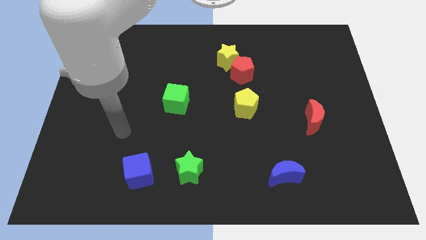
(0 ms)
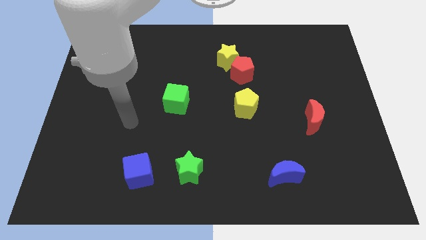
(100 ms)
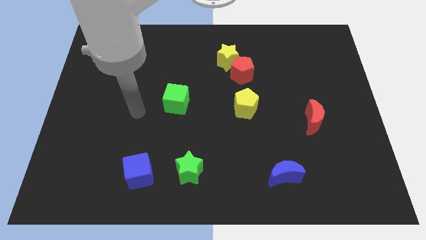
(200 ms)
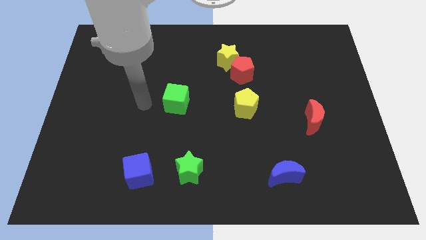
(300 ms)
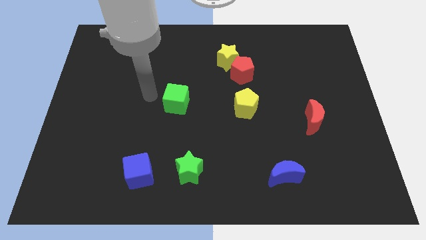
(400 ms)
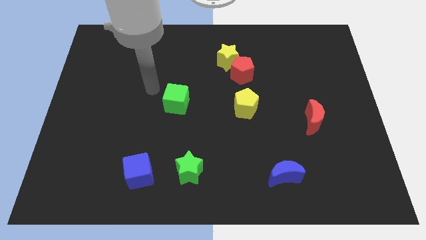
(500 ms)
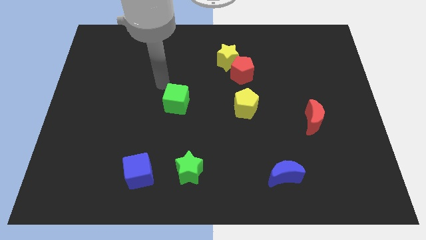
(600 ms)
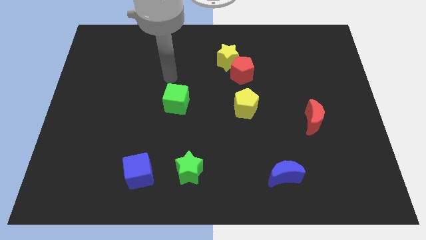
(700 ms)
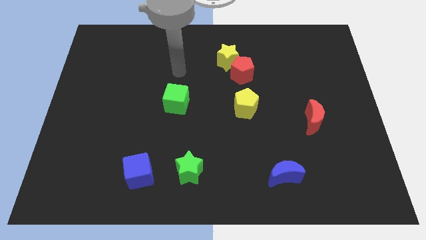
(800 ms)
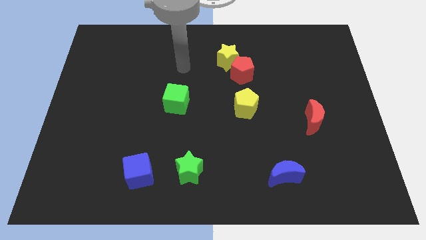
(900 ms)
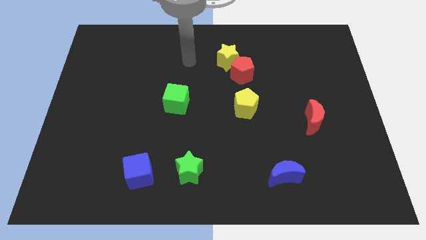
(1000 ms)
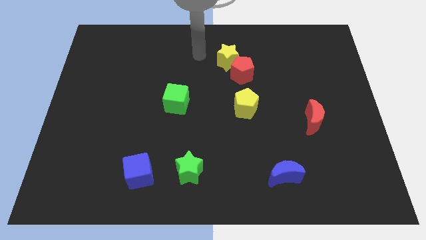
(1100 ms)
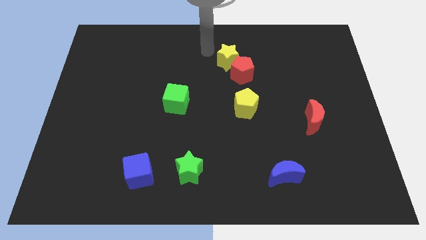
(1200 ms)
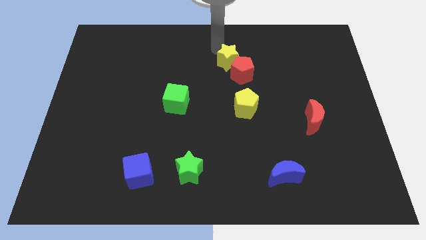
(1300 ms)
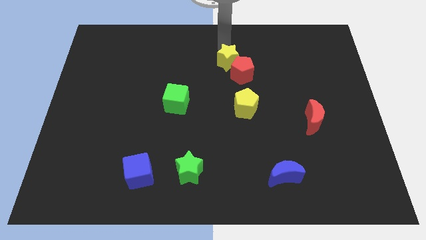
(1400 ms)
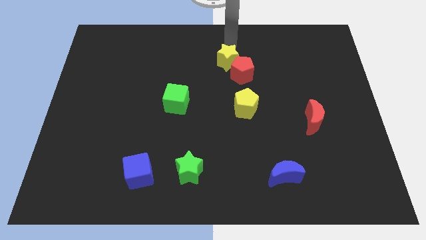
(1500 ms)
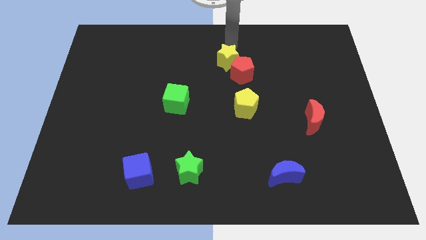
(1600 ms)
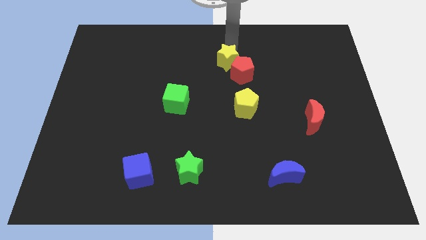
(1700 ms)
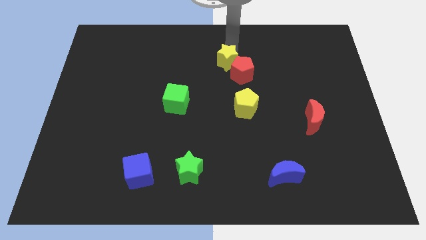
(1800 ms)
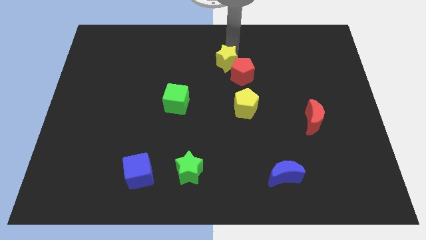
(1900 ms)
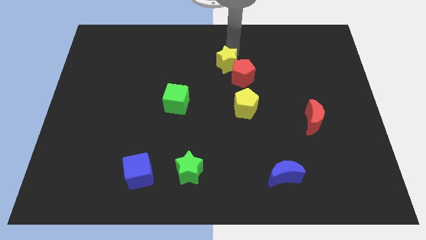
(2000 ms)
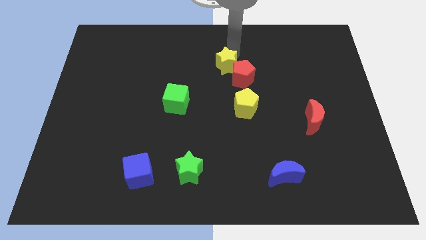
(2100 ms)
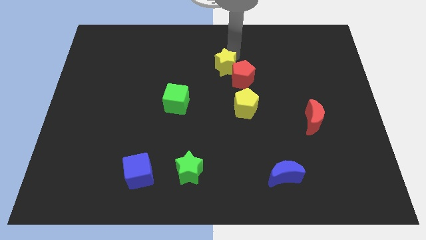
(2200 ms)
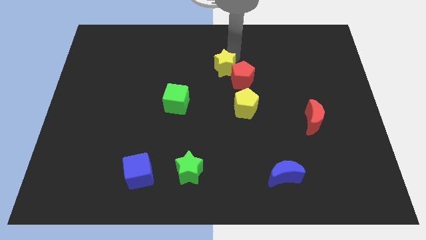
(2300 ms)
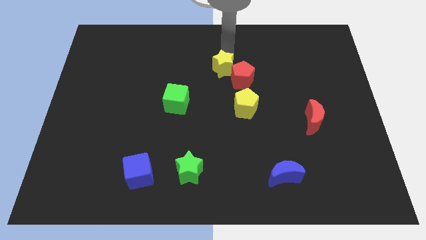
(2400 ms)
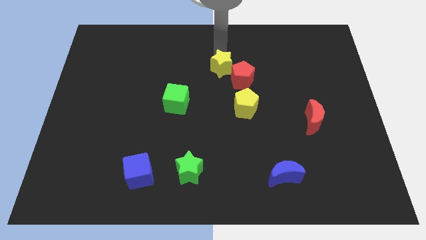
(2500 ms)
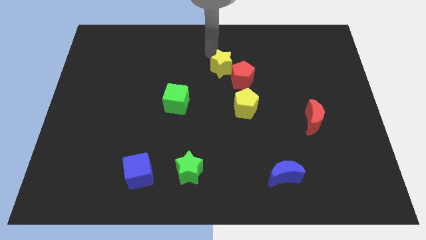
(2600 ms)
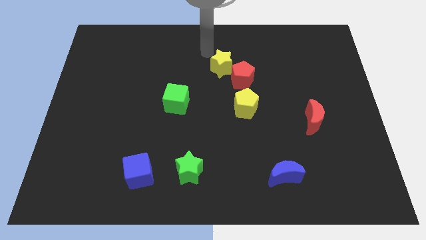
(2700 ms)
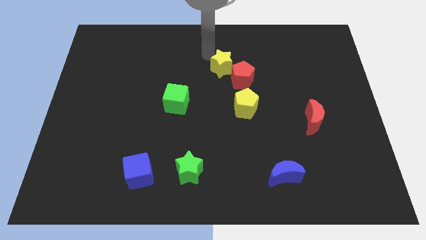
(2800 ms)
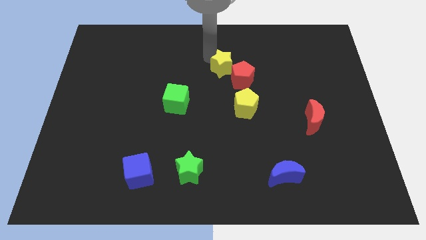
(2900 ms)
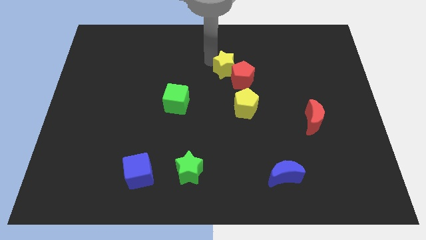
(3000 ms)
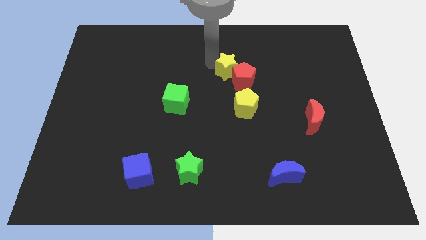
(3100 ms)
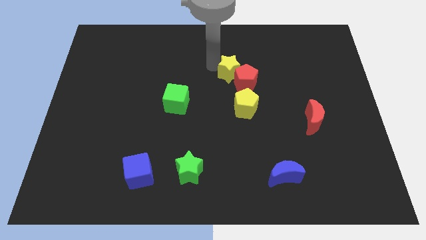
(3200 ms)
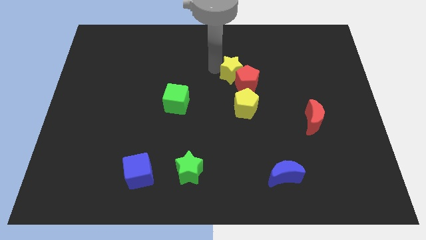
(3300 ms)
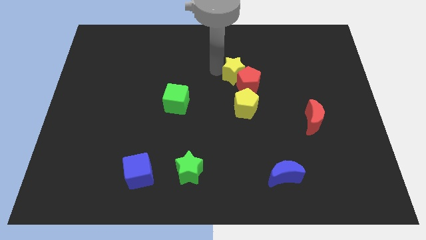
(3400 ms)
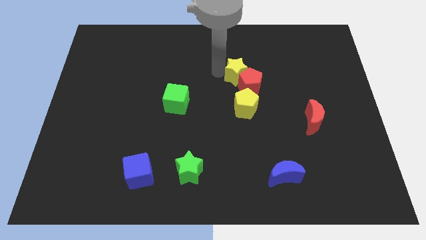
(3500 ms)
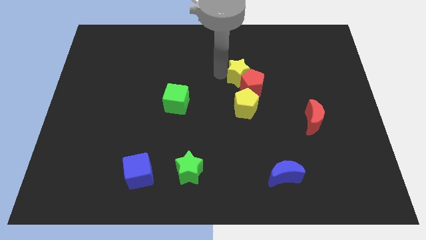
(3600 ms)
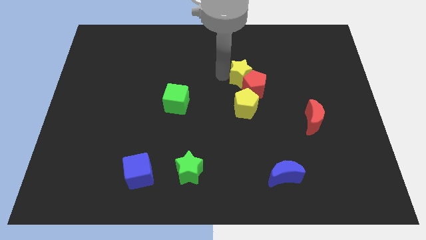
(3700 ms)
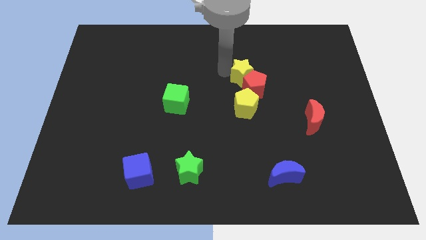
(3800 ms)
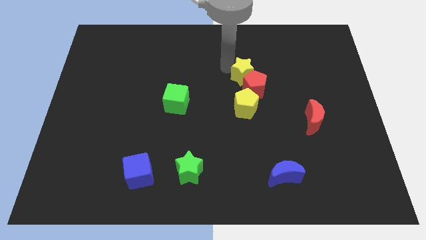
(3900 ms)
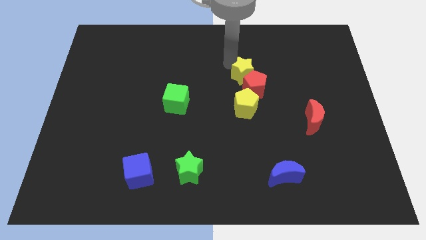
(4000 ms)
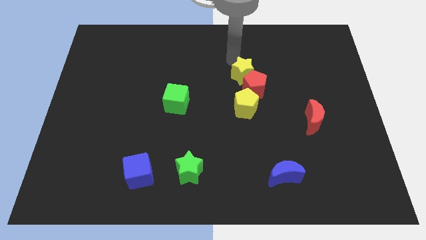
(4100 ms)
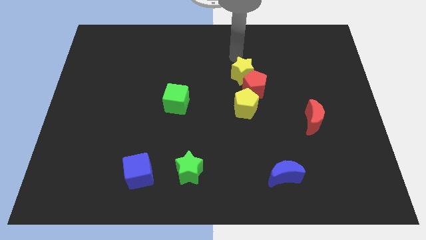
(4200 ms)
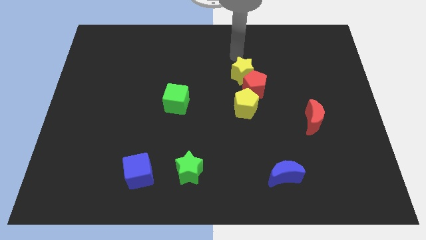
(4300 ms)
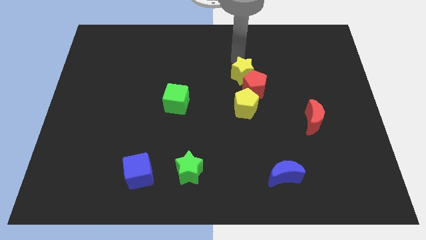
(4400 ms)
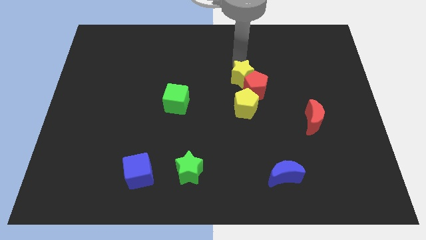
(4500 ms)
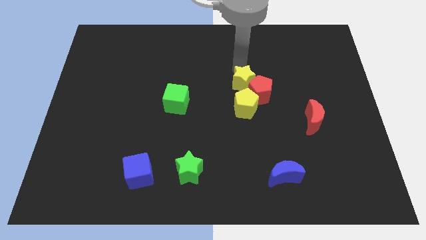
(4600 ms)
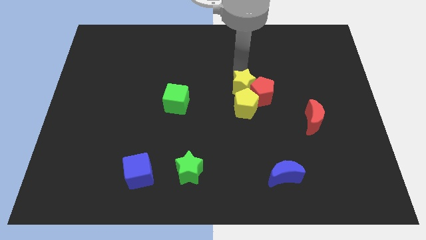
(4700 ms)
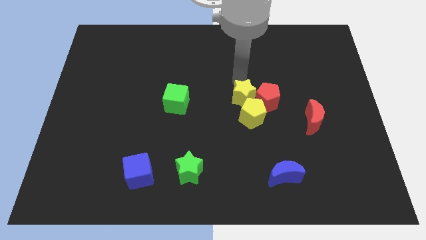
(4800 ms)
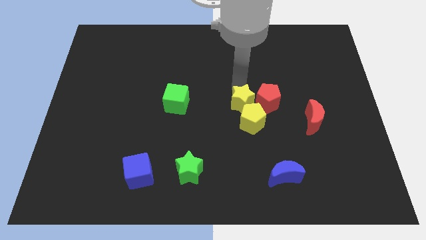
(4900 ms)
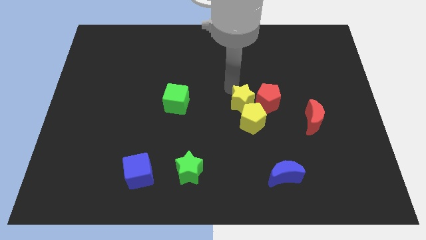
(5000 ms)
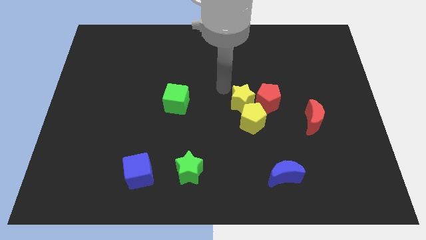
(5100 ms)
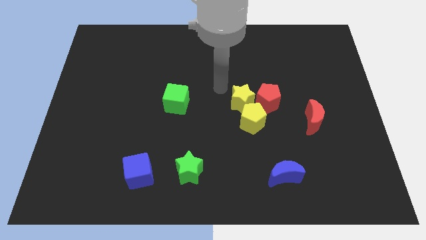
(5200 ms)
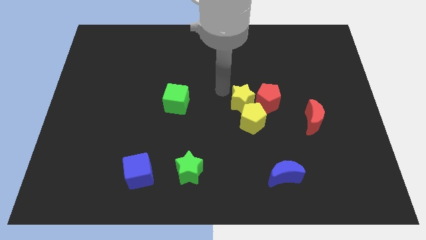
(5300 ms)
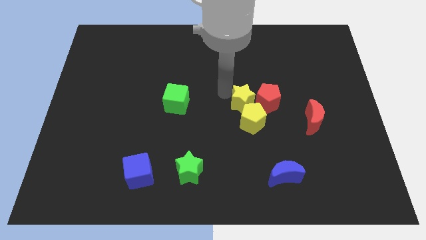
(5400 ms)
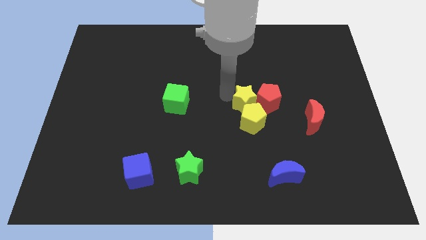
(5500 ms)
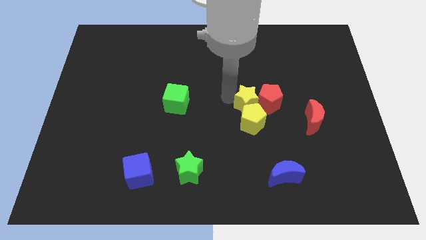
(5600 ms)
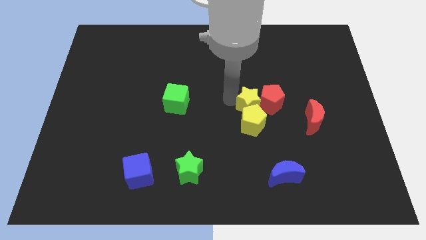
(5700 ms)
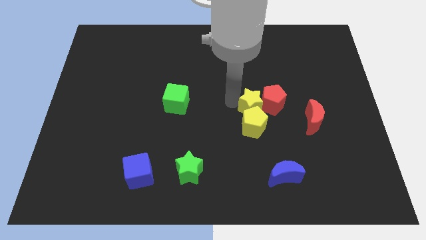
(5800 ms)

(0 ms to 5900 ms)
move the yellow star to the left of the red moon

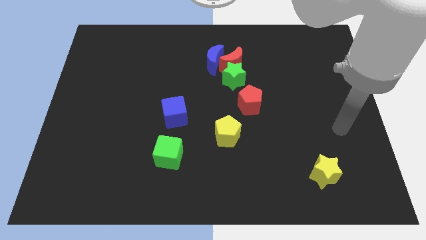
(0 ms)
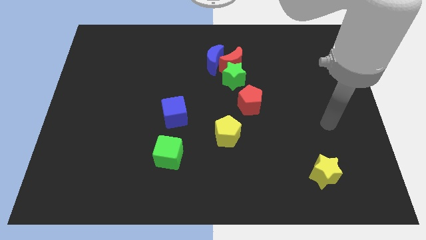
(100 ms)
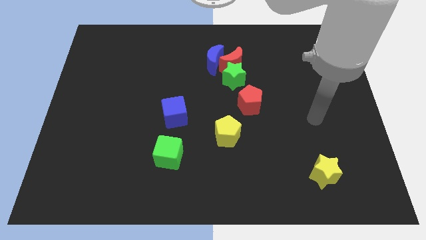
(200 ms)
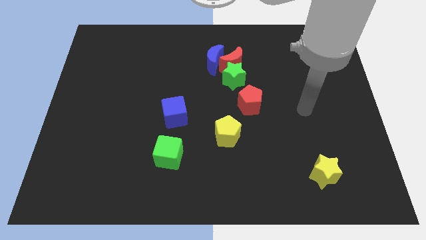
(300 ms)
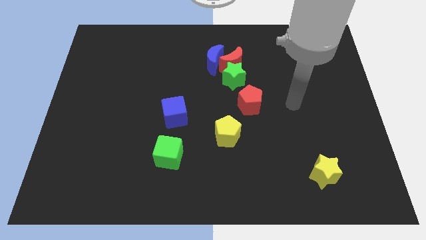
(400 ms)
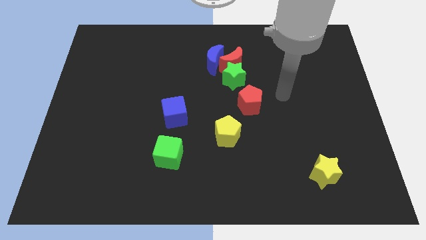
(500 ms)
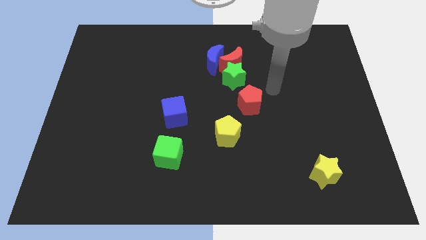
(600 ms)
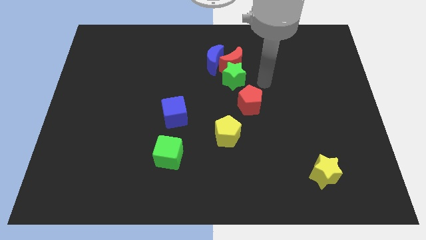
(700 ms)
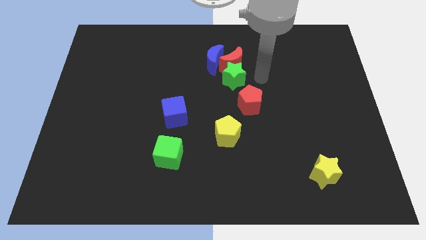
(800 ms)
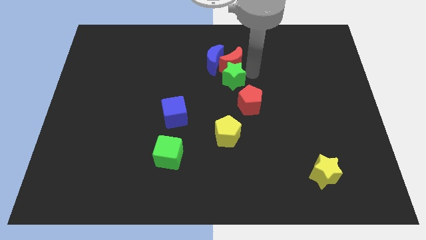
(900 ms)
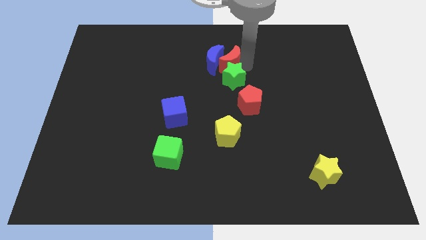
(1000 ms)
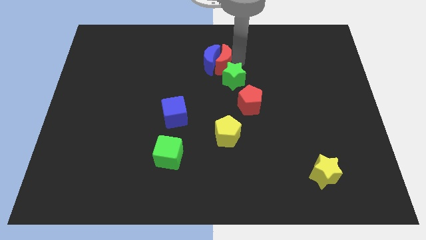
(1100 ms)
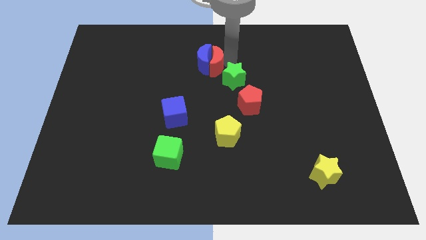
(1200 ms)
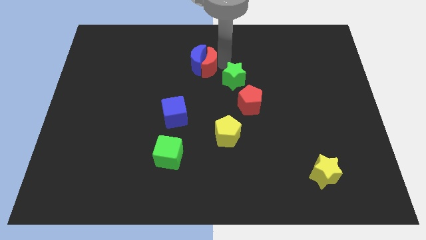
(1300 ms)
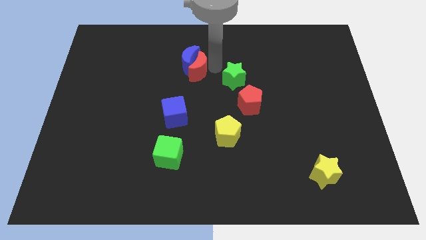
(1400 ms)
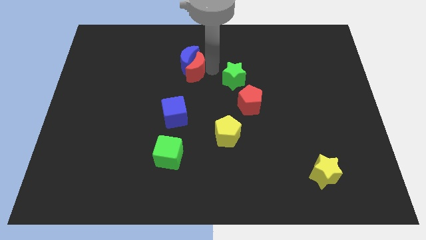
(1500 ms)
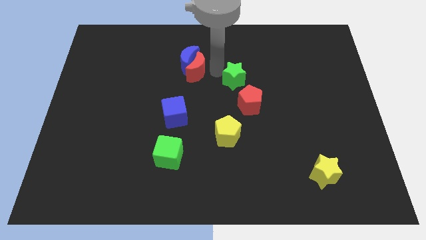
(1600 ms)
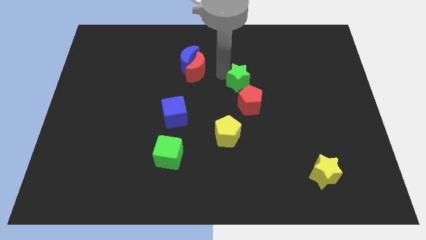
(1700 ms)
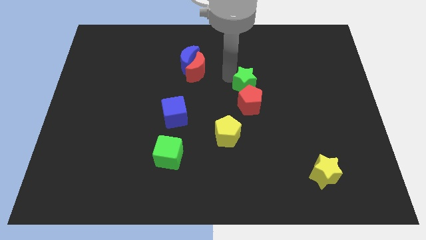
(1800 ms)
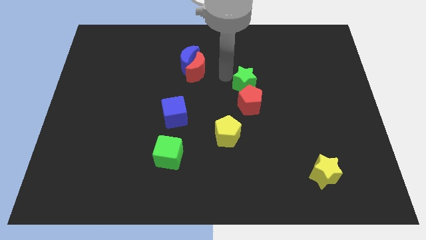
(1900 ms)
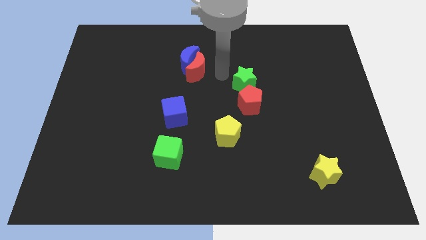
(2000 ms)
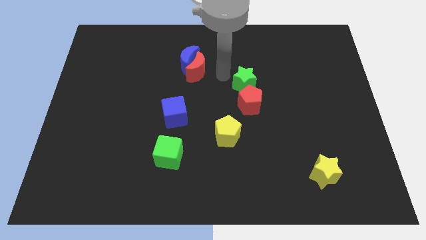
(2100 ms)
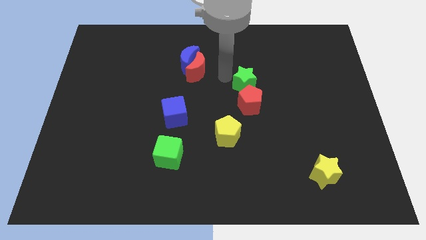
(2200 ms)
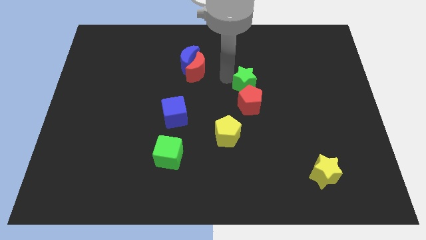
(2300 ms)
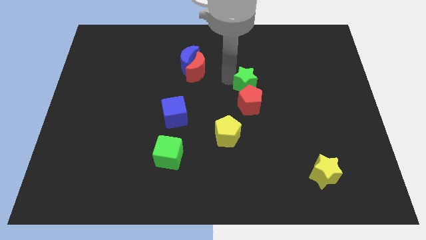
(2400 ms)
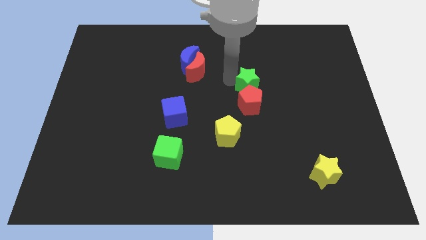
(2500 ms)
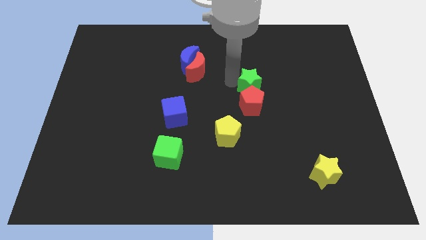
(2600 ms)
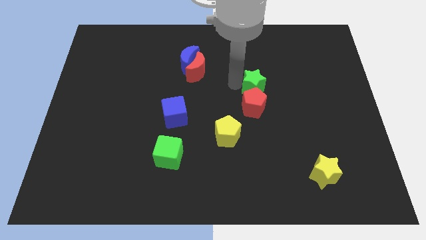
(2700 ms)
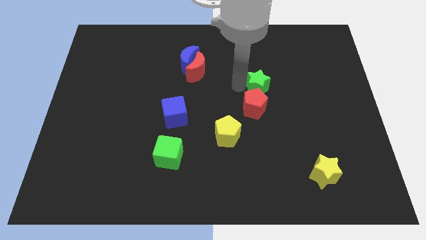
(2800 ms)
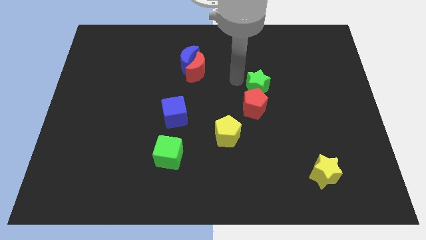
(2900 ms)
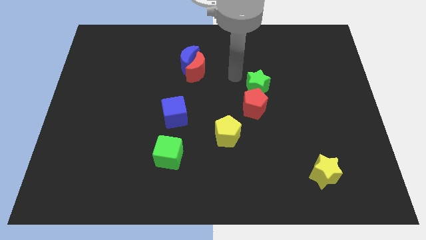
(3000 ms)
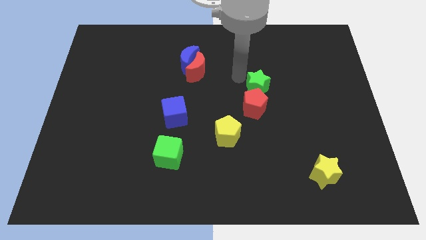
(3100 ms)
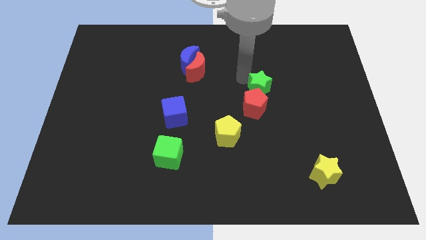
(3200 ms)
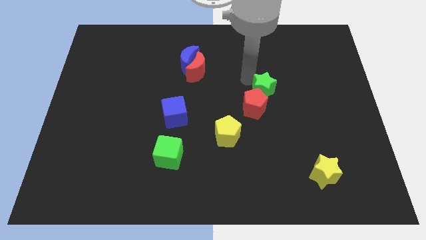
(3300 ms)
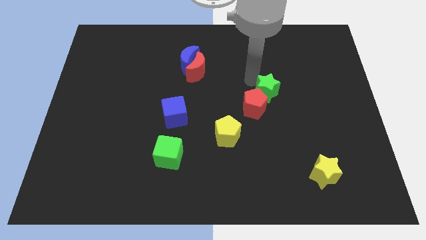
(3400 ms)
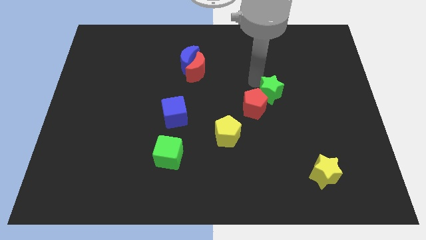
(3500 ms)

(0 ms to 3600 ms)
put the green star just right of the red pentagon
